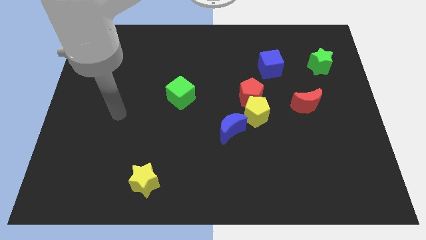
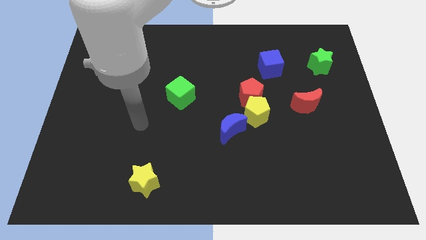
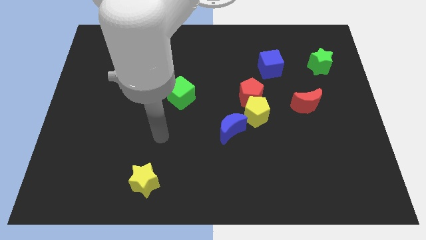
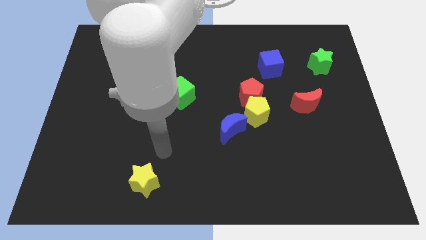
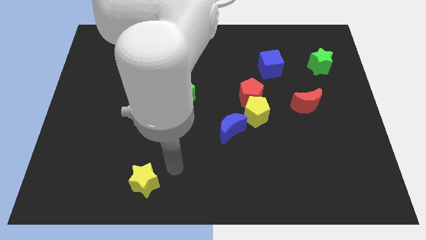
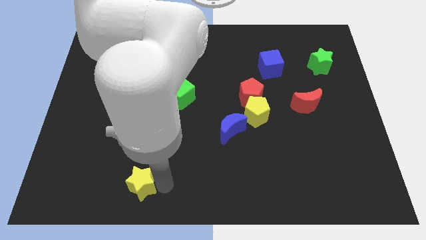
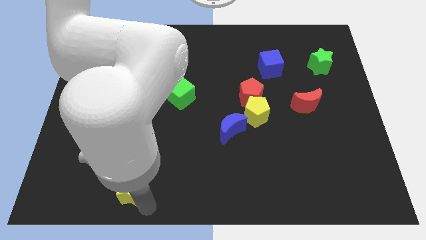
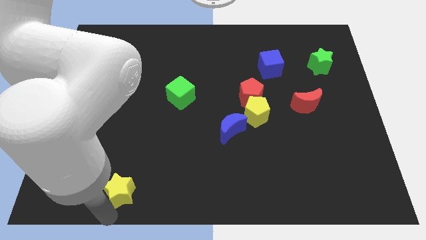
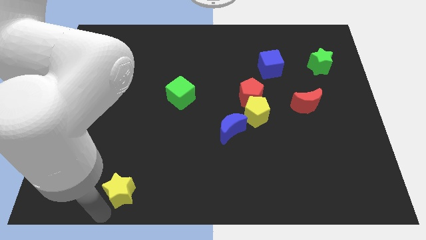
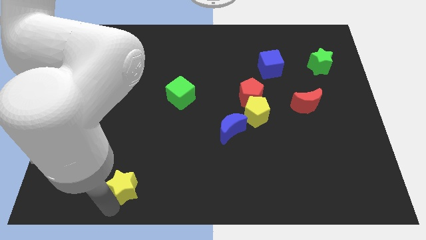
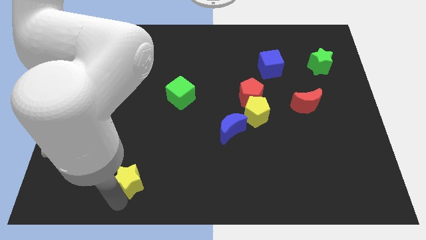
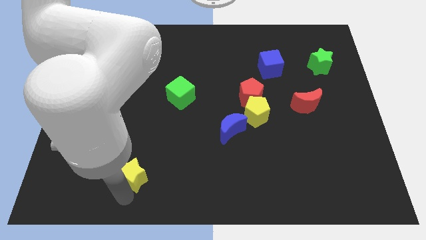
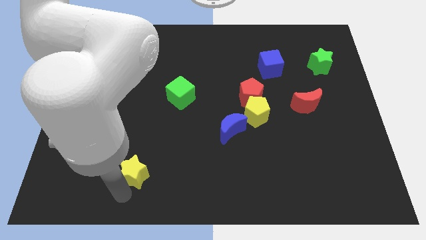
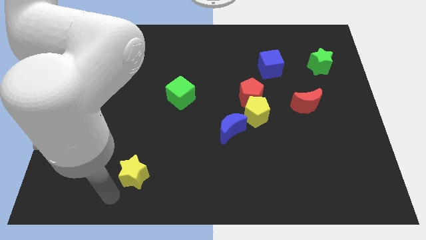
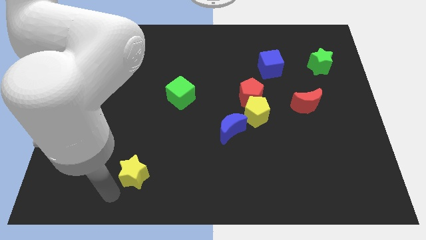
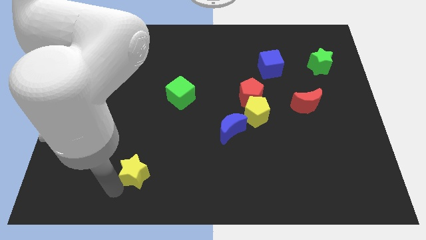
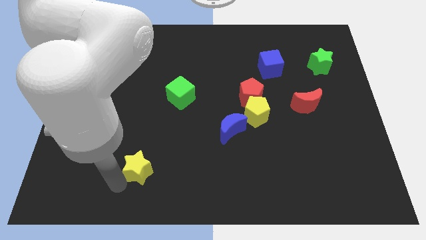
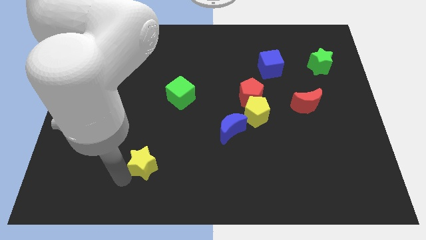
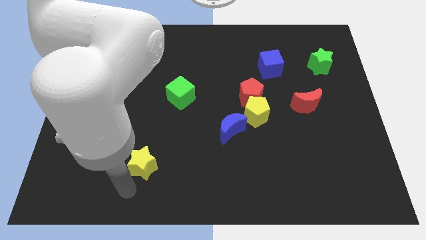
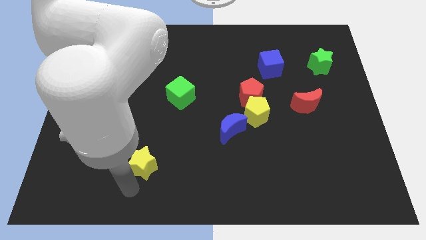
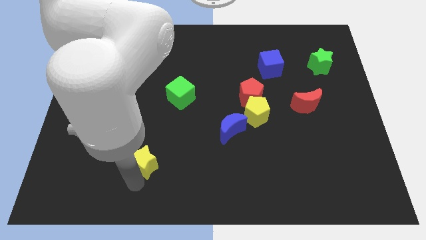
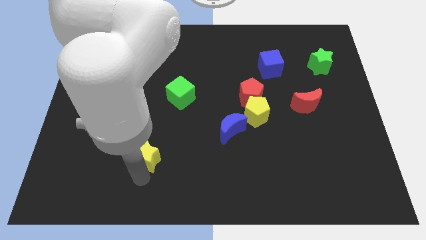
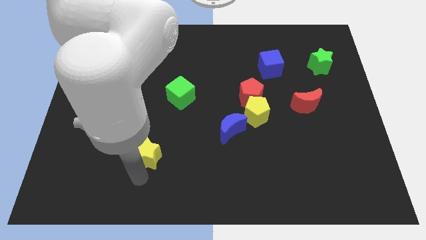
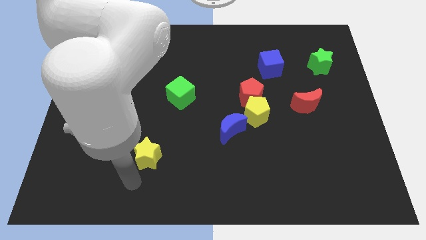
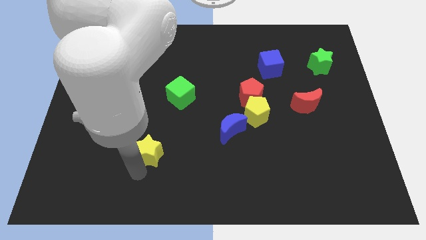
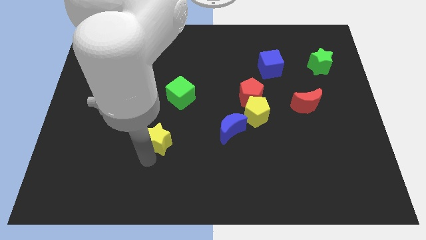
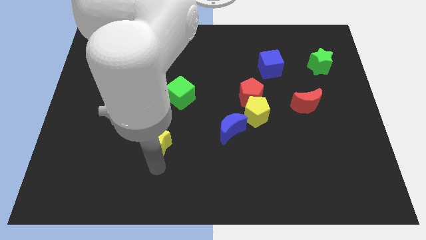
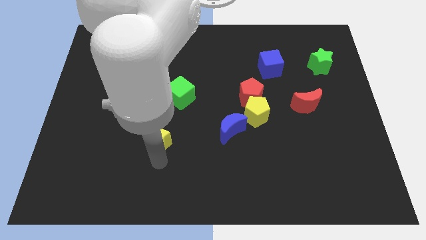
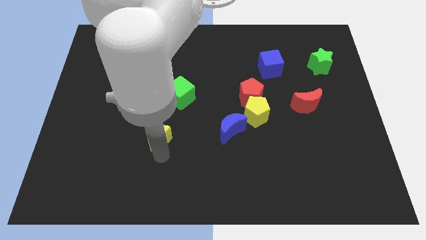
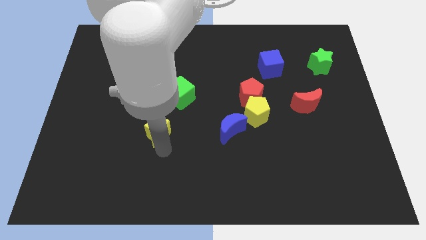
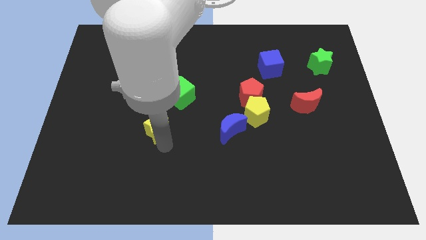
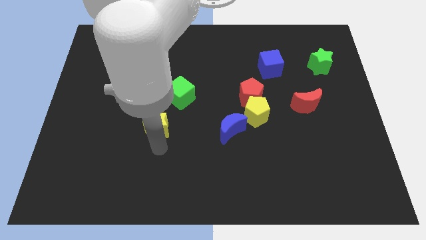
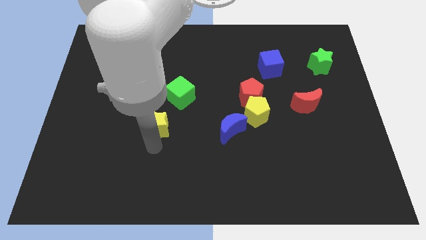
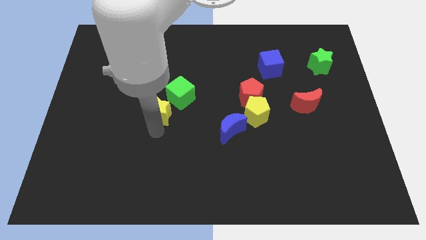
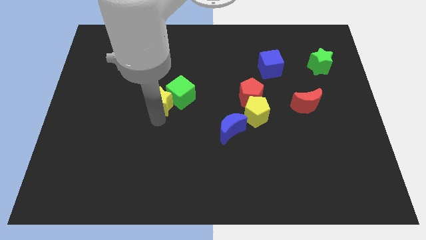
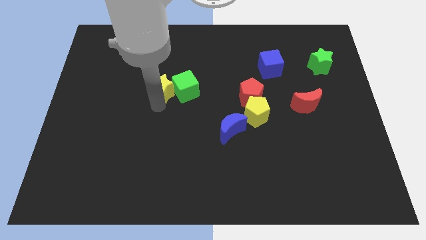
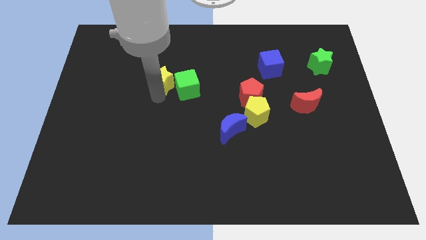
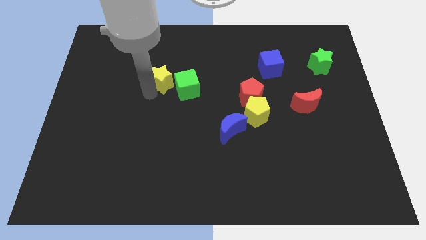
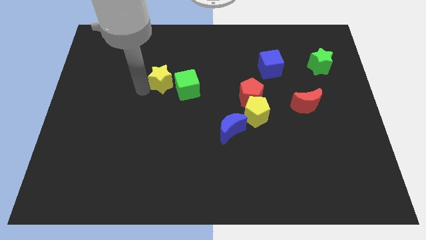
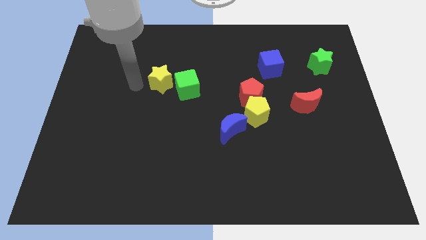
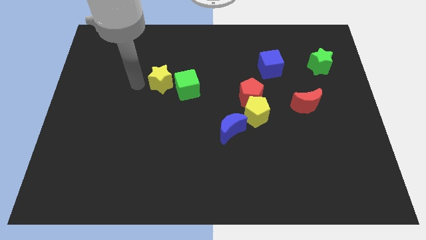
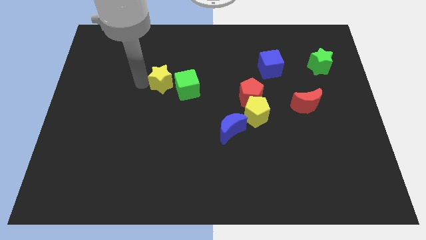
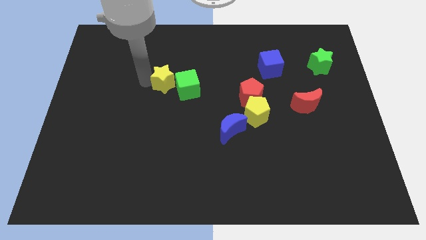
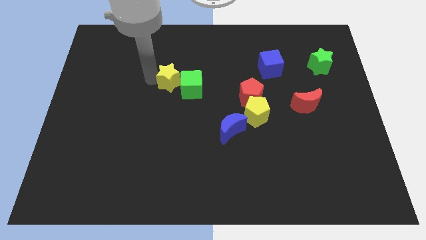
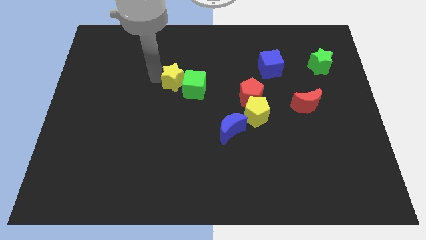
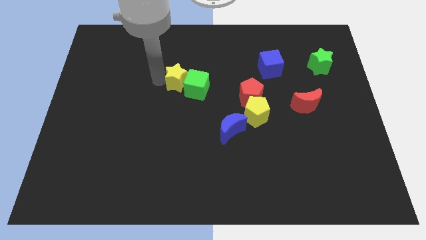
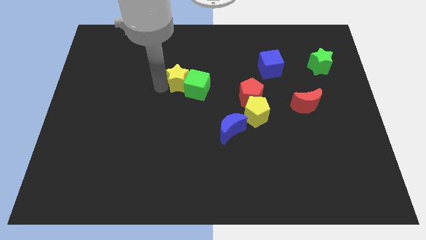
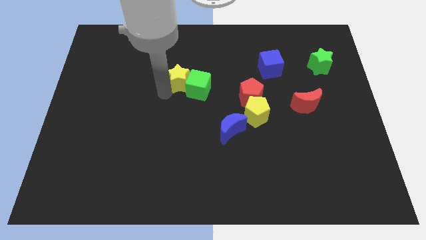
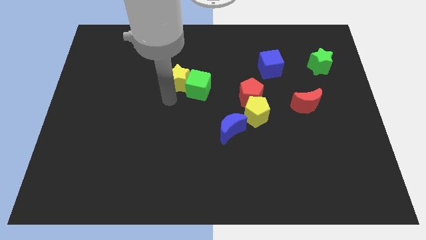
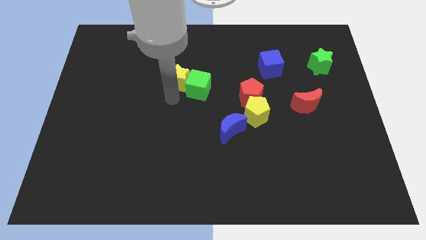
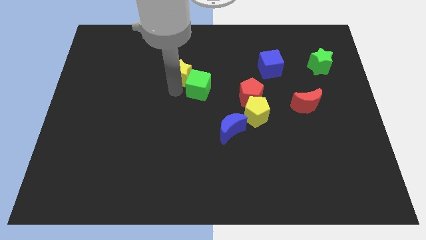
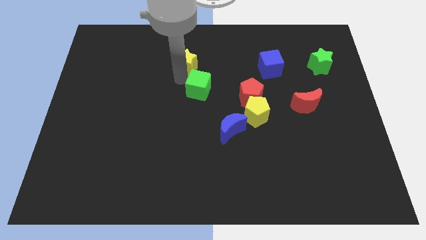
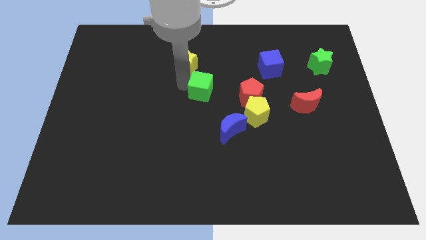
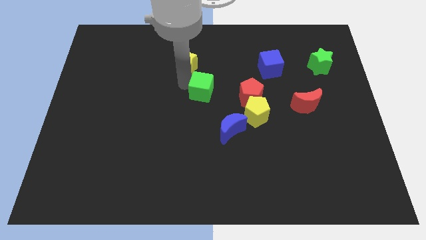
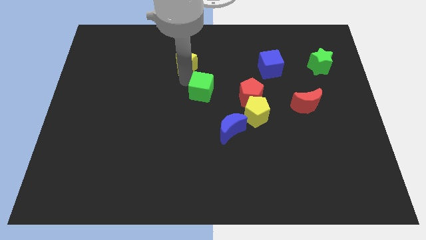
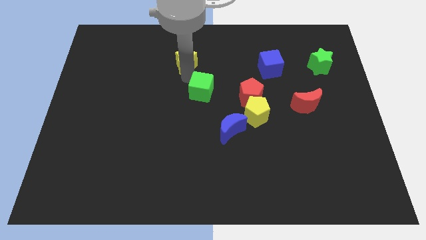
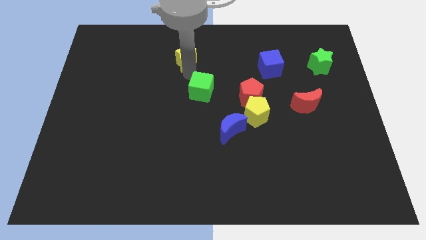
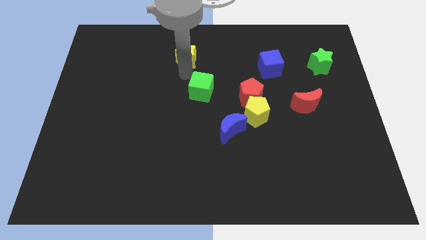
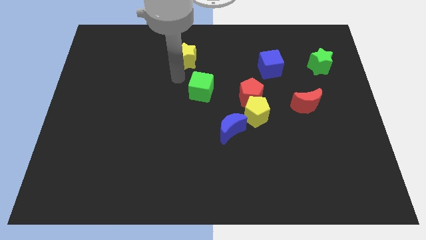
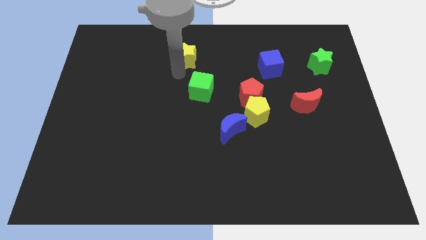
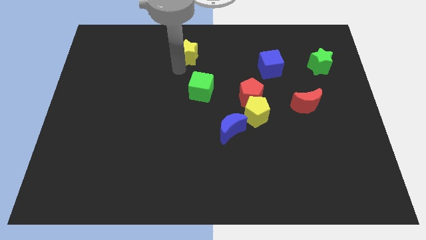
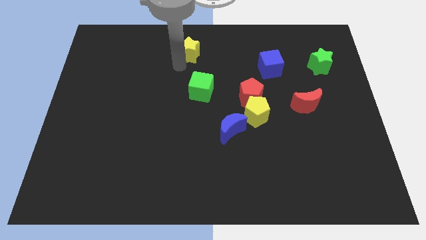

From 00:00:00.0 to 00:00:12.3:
push the yellow star to the towards your base
